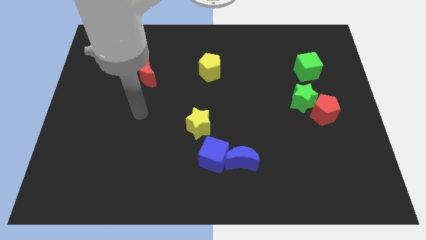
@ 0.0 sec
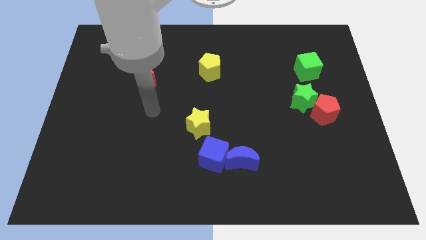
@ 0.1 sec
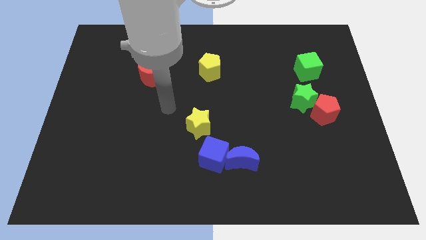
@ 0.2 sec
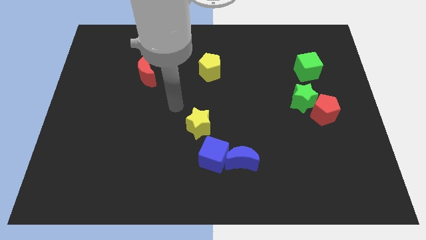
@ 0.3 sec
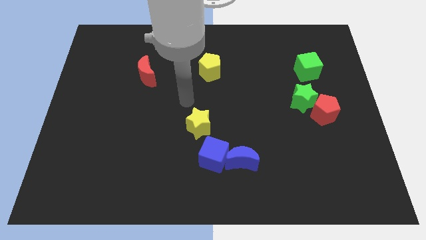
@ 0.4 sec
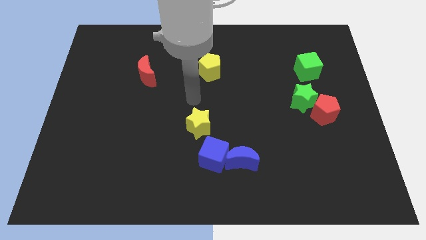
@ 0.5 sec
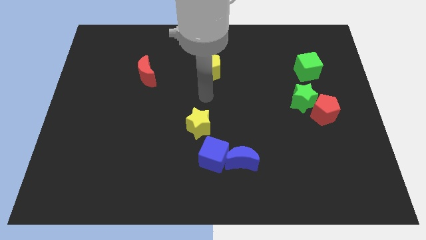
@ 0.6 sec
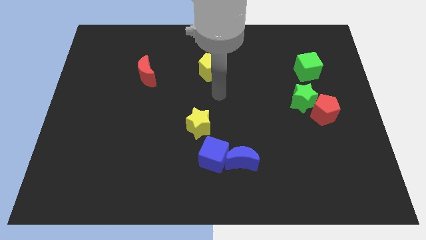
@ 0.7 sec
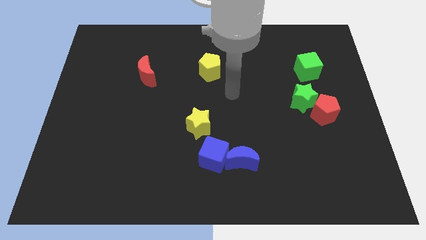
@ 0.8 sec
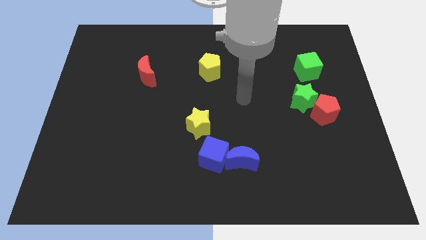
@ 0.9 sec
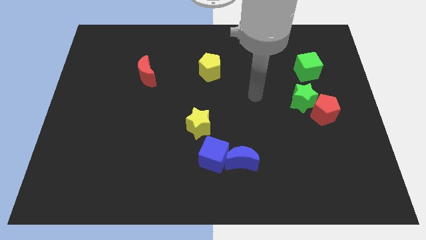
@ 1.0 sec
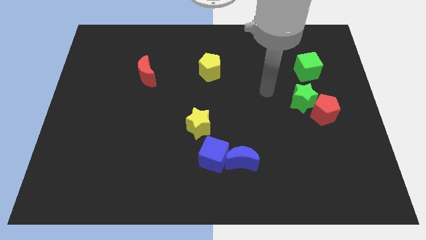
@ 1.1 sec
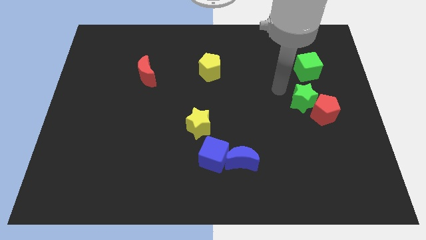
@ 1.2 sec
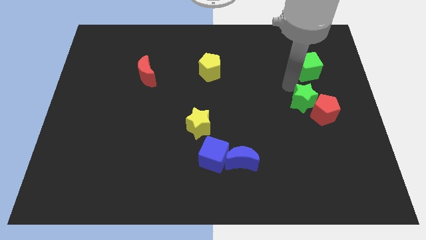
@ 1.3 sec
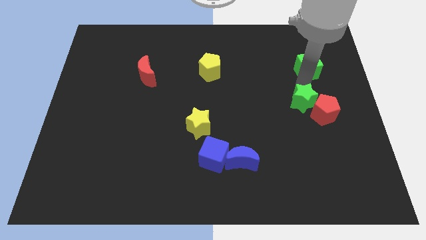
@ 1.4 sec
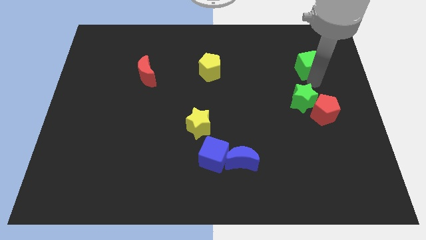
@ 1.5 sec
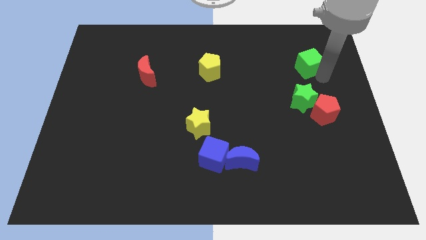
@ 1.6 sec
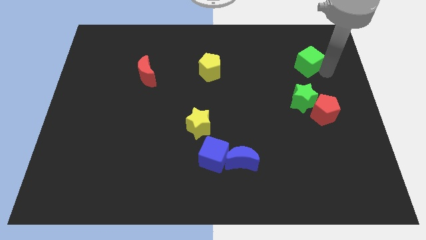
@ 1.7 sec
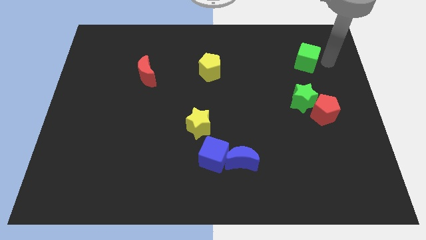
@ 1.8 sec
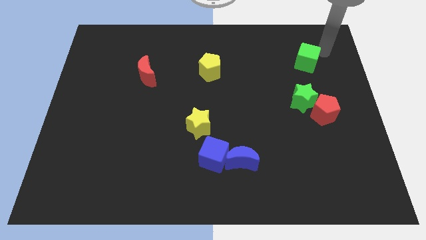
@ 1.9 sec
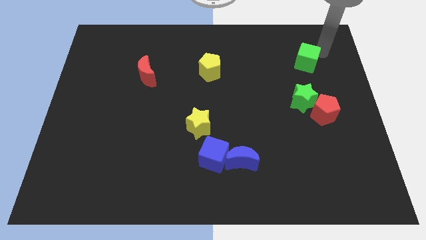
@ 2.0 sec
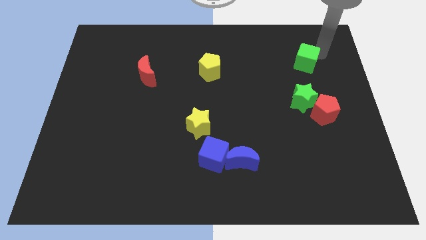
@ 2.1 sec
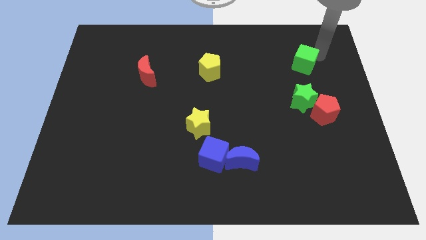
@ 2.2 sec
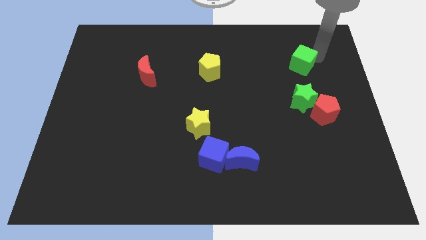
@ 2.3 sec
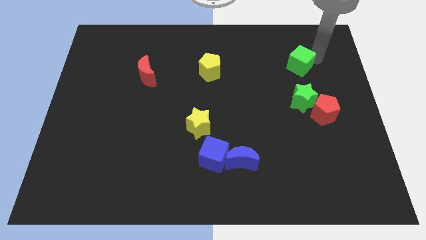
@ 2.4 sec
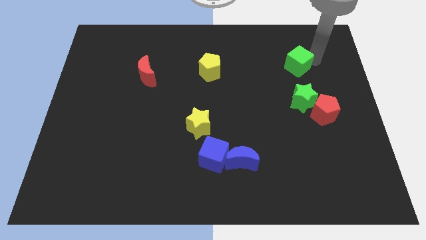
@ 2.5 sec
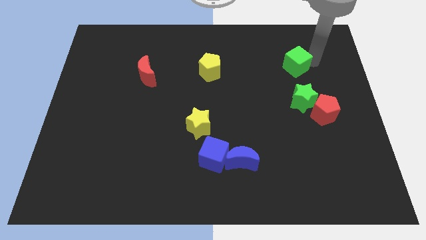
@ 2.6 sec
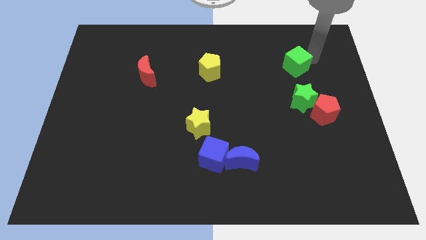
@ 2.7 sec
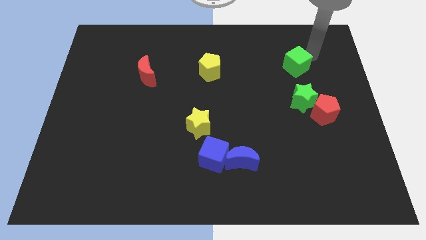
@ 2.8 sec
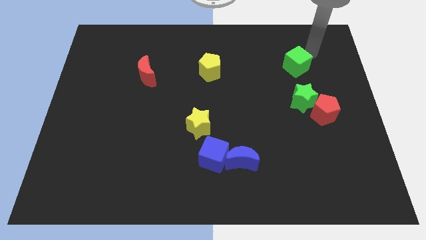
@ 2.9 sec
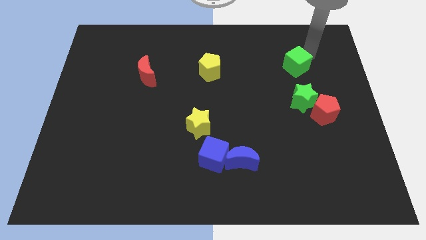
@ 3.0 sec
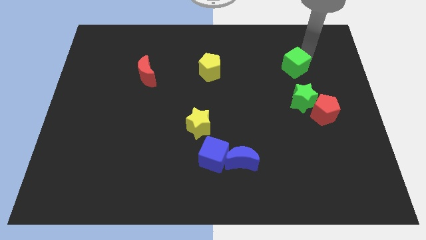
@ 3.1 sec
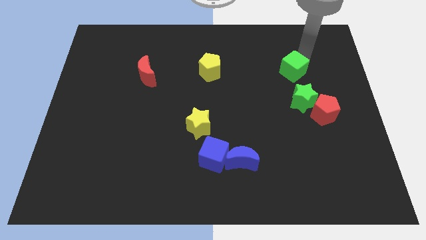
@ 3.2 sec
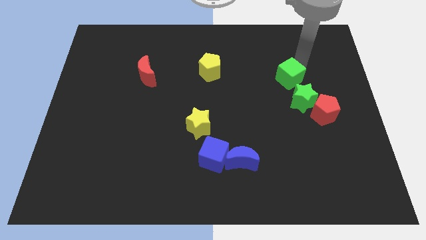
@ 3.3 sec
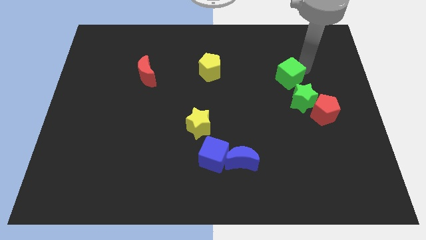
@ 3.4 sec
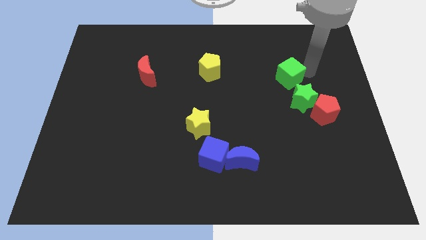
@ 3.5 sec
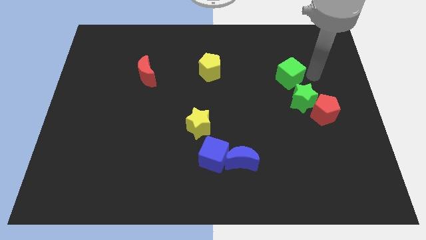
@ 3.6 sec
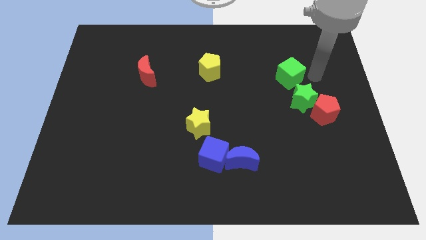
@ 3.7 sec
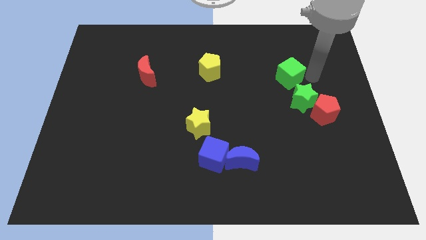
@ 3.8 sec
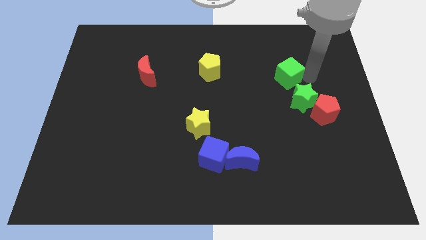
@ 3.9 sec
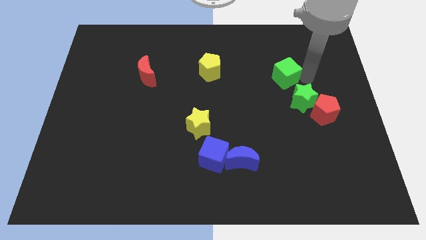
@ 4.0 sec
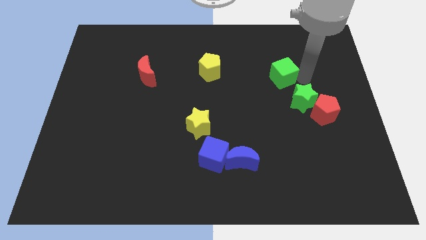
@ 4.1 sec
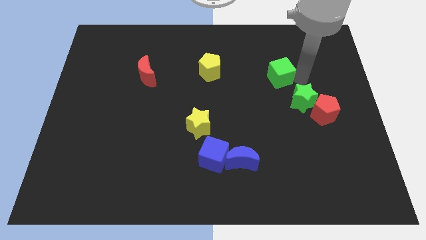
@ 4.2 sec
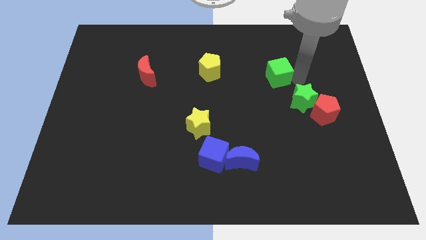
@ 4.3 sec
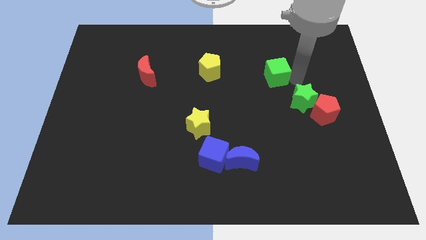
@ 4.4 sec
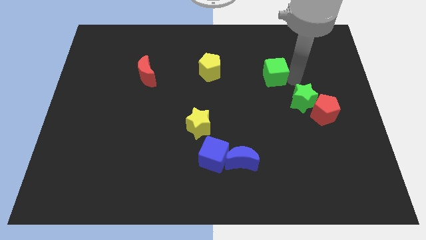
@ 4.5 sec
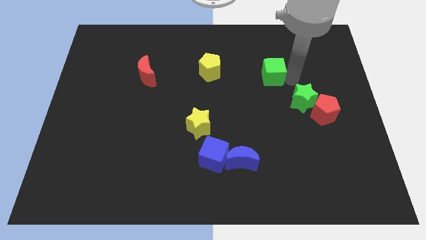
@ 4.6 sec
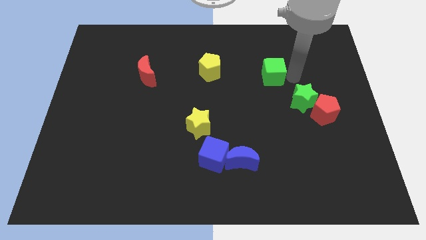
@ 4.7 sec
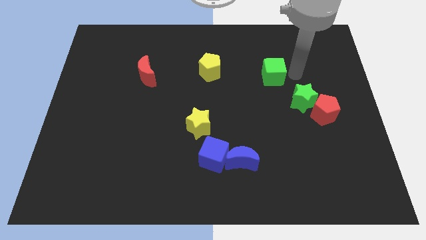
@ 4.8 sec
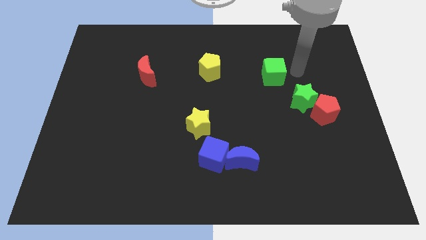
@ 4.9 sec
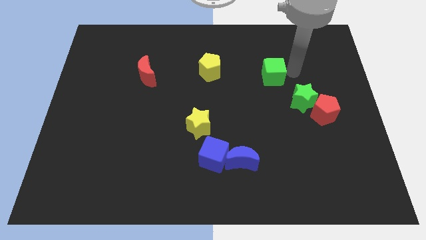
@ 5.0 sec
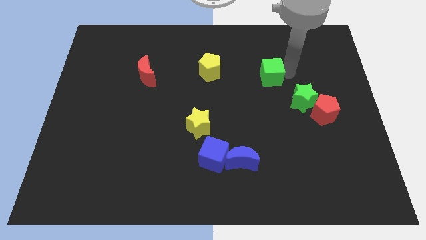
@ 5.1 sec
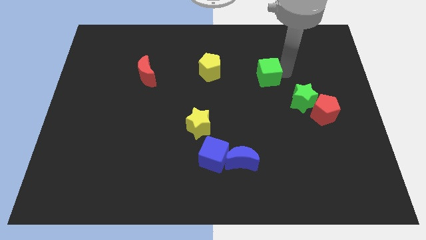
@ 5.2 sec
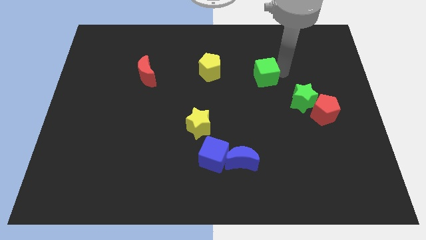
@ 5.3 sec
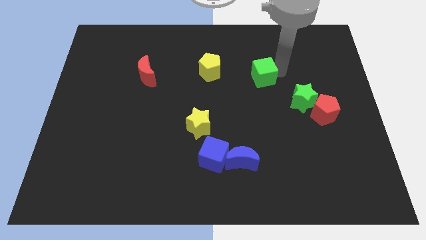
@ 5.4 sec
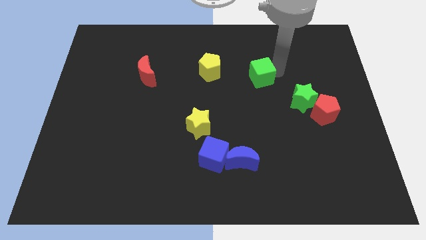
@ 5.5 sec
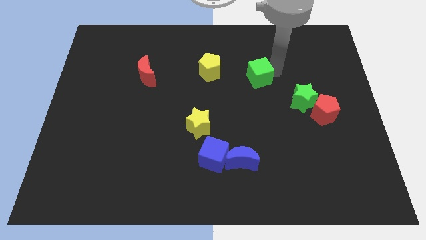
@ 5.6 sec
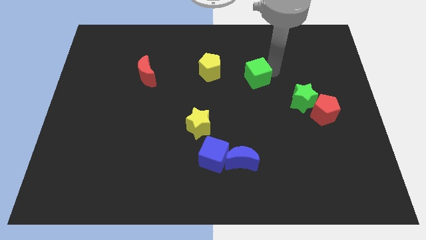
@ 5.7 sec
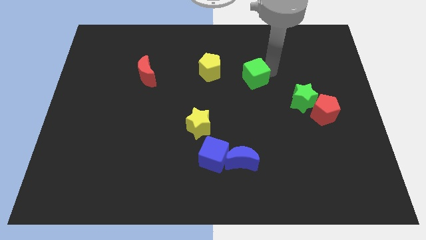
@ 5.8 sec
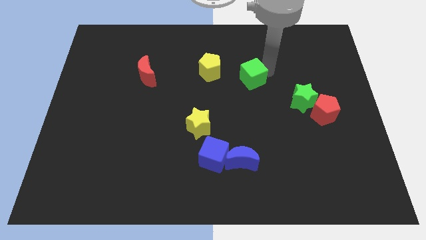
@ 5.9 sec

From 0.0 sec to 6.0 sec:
move the green cube to the center of the board
